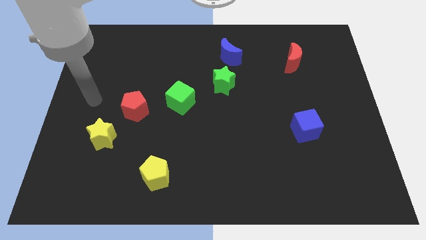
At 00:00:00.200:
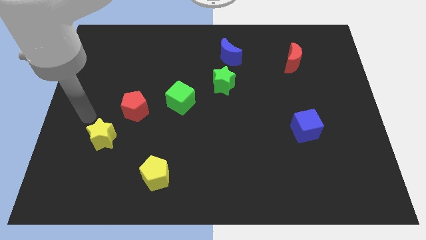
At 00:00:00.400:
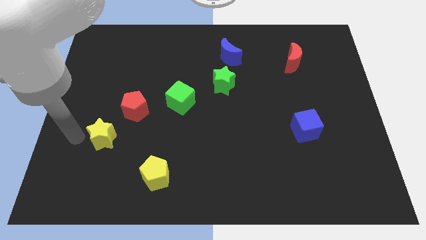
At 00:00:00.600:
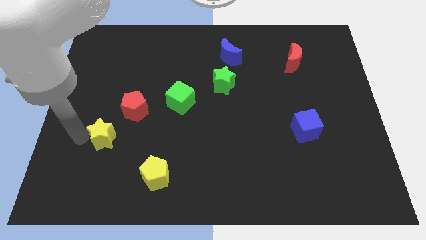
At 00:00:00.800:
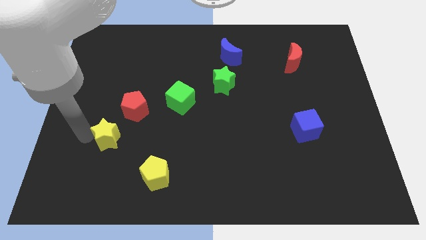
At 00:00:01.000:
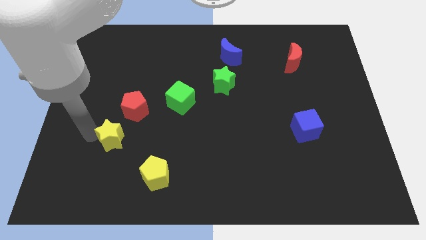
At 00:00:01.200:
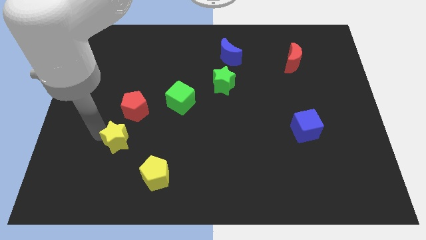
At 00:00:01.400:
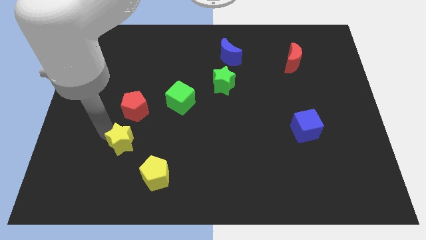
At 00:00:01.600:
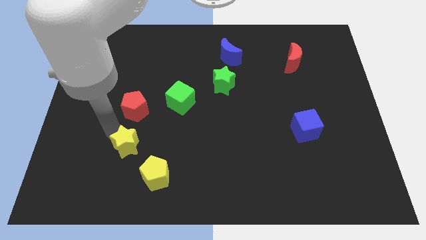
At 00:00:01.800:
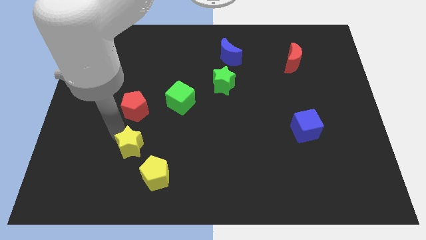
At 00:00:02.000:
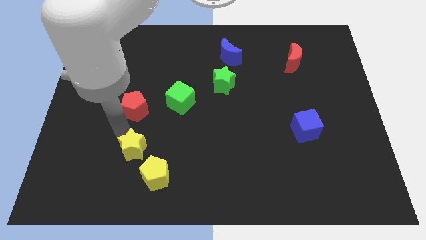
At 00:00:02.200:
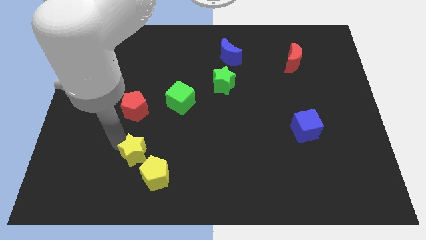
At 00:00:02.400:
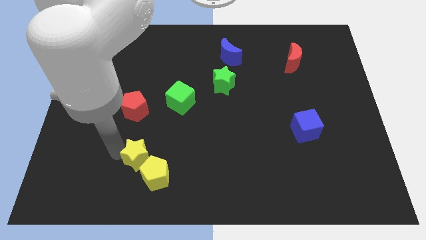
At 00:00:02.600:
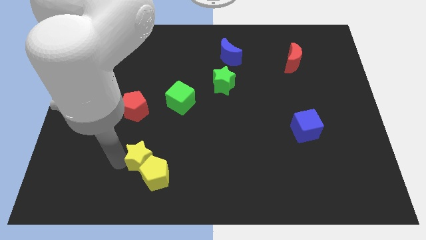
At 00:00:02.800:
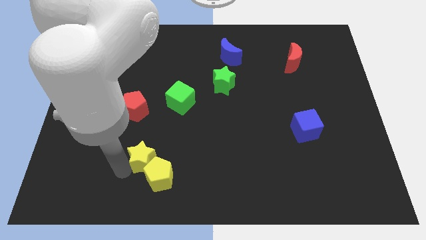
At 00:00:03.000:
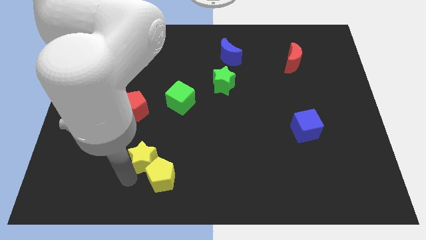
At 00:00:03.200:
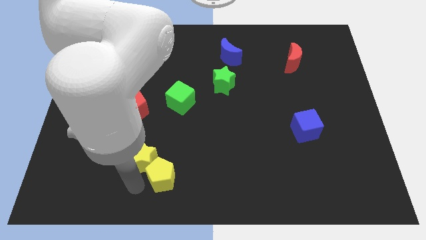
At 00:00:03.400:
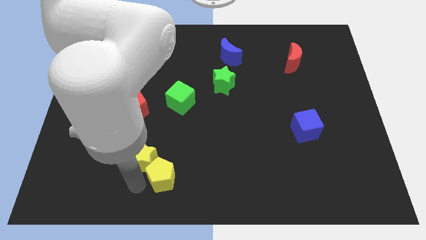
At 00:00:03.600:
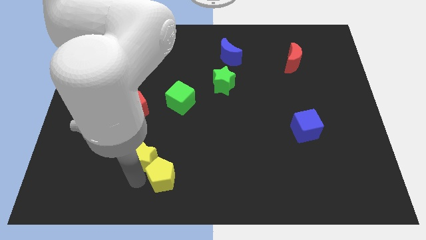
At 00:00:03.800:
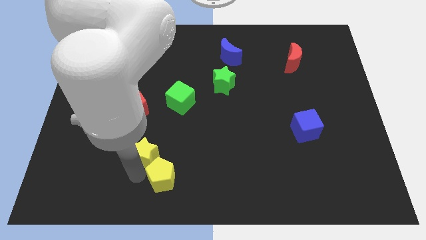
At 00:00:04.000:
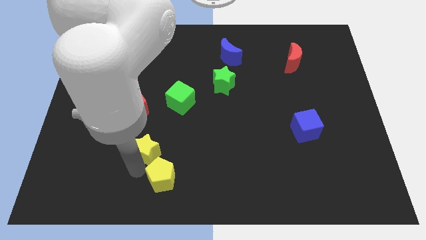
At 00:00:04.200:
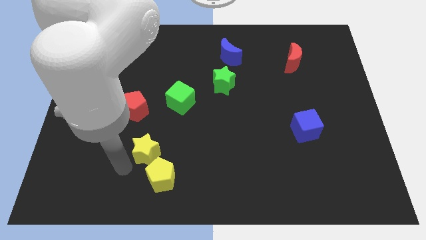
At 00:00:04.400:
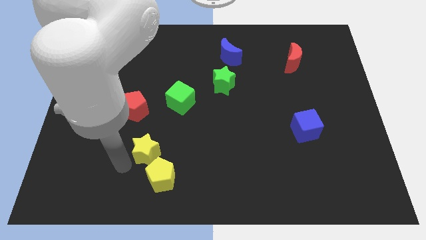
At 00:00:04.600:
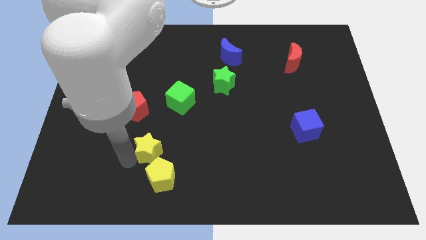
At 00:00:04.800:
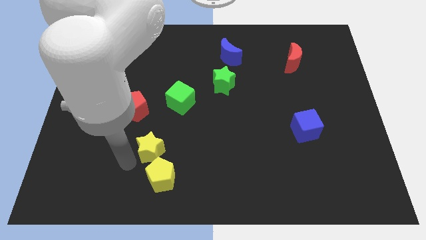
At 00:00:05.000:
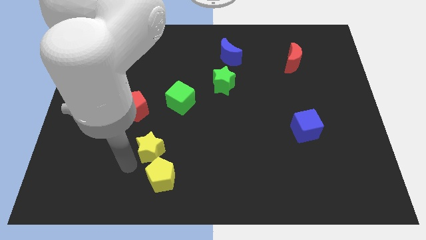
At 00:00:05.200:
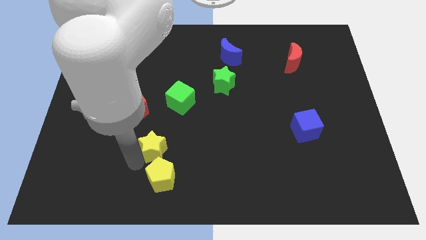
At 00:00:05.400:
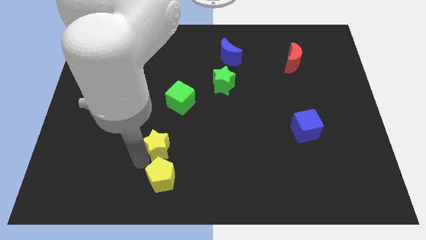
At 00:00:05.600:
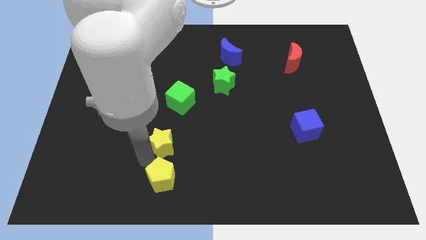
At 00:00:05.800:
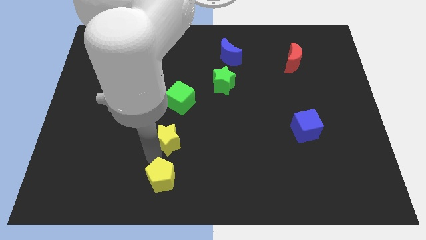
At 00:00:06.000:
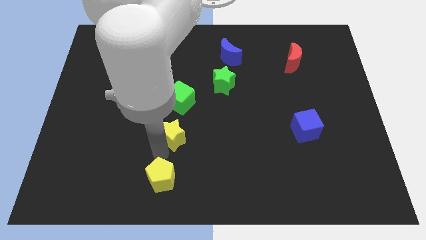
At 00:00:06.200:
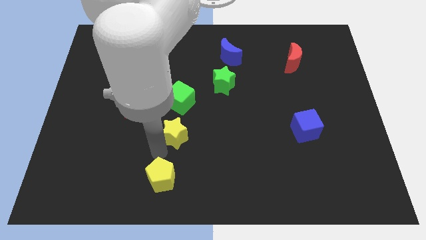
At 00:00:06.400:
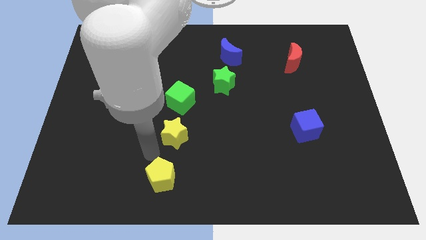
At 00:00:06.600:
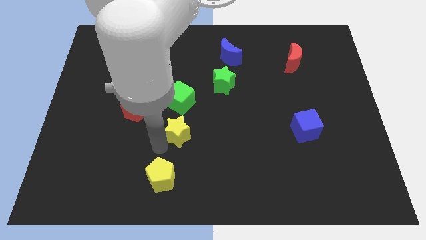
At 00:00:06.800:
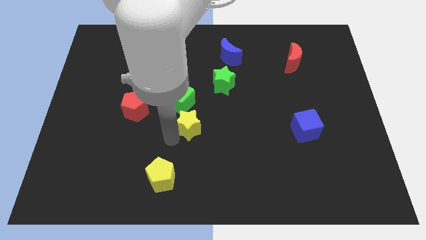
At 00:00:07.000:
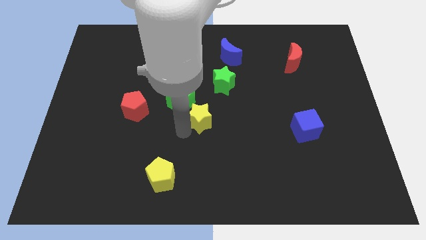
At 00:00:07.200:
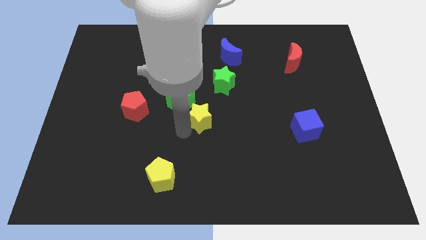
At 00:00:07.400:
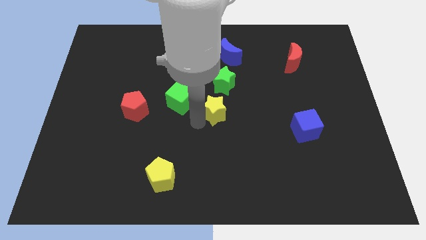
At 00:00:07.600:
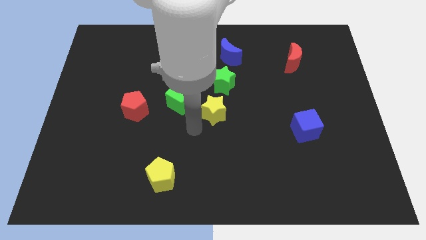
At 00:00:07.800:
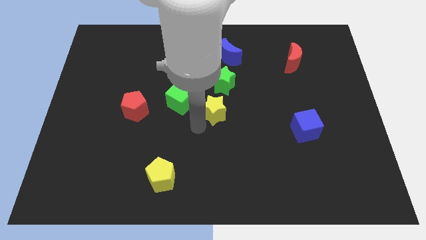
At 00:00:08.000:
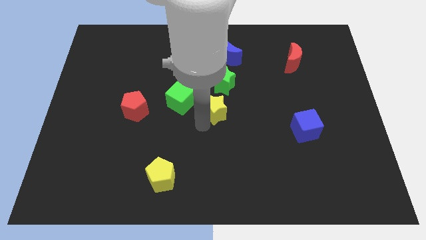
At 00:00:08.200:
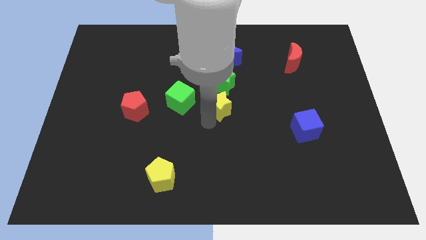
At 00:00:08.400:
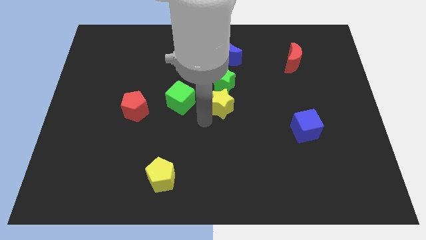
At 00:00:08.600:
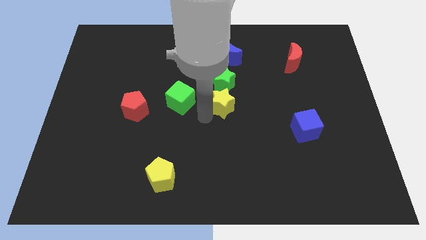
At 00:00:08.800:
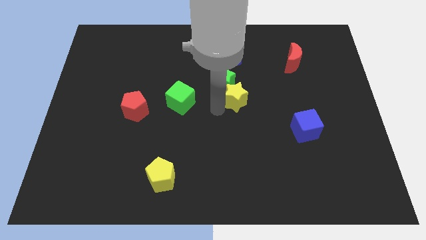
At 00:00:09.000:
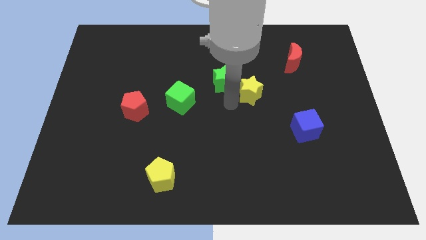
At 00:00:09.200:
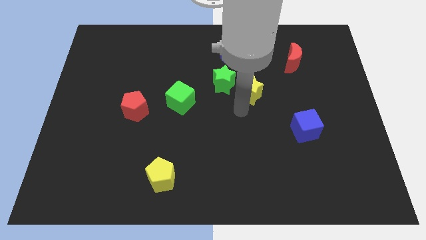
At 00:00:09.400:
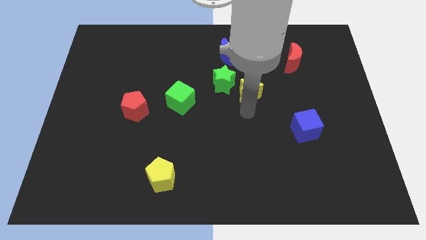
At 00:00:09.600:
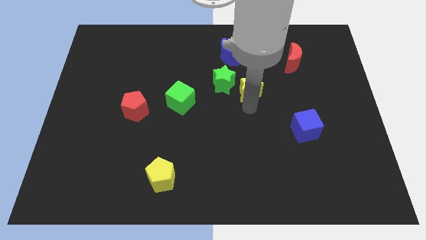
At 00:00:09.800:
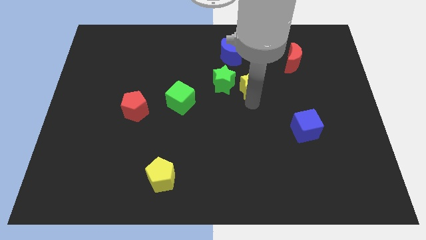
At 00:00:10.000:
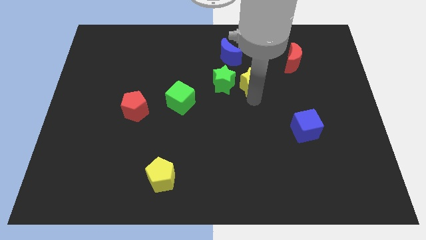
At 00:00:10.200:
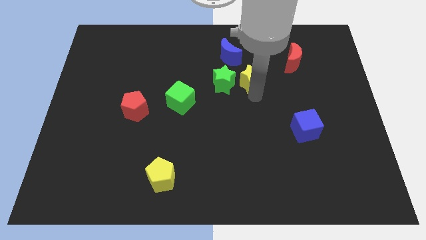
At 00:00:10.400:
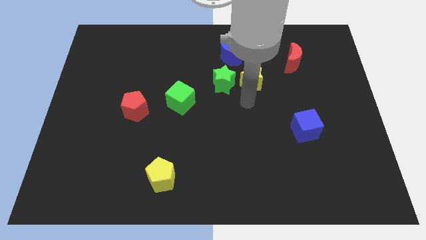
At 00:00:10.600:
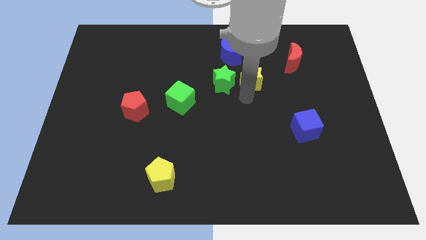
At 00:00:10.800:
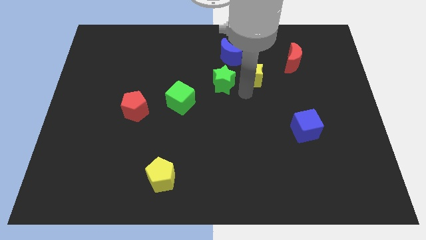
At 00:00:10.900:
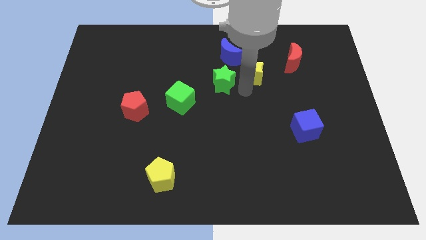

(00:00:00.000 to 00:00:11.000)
push the yellow star to the left of the red moon

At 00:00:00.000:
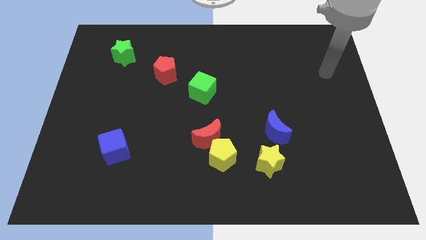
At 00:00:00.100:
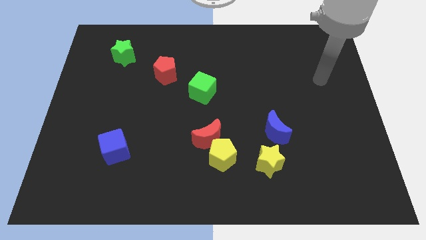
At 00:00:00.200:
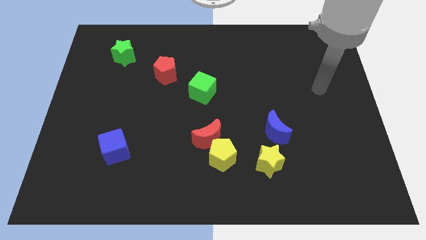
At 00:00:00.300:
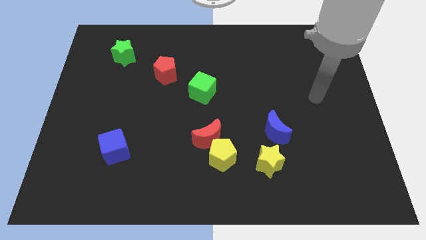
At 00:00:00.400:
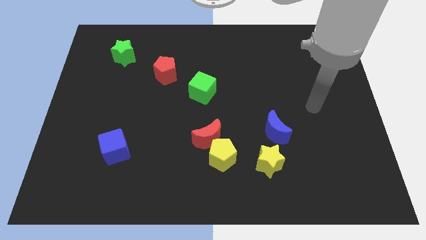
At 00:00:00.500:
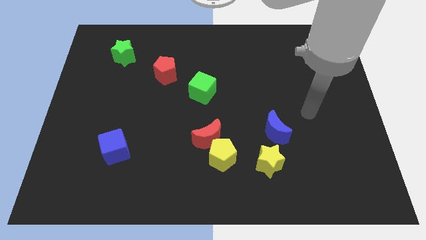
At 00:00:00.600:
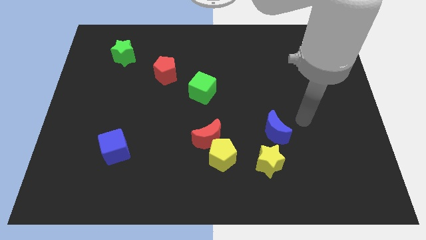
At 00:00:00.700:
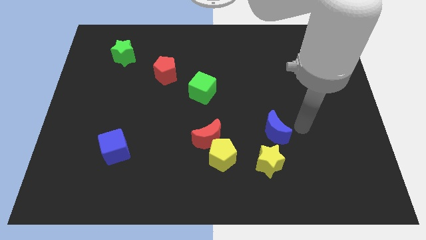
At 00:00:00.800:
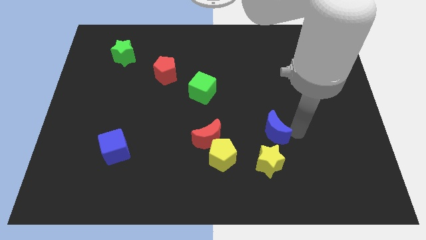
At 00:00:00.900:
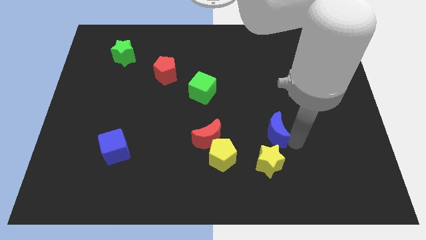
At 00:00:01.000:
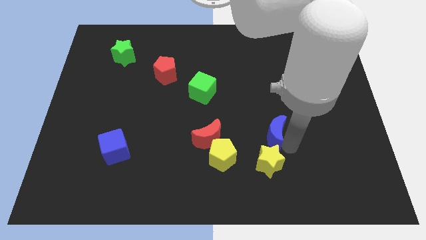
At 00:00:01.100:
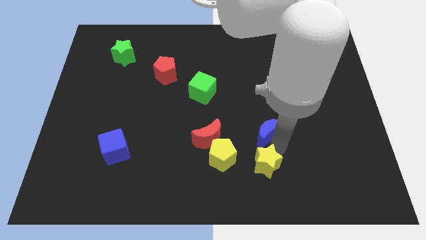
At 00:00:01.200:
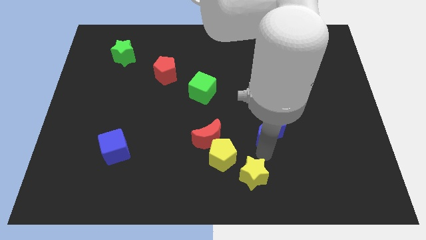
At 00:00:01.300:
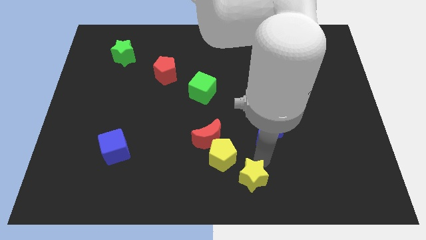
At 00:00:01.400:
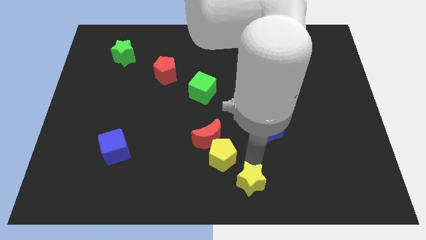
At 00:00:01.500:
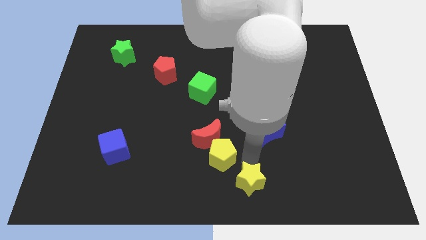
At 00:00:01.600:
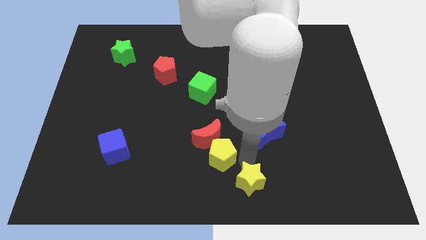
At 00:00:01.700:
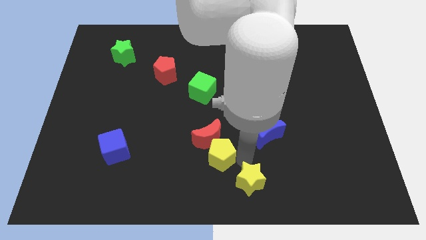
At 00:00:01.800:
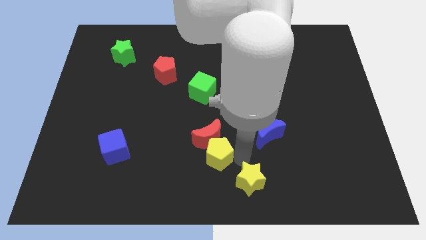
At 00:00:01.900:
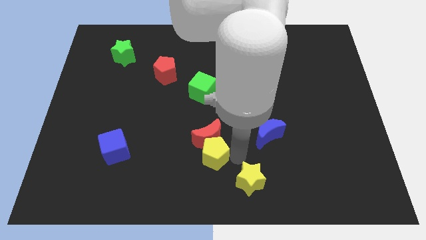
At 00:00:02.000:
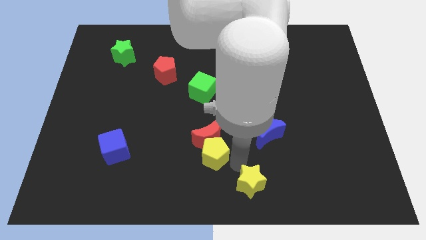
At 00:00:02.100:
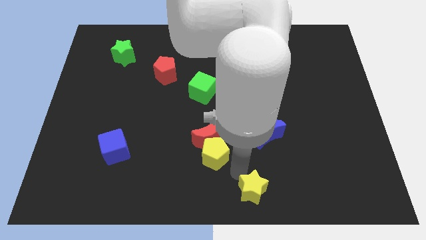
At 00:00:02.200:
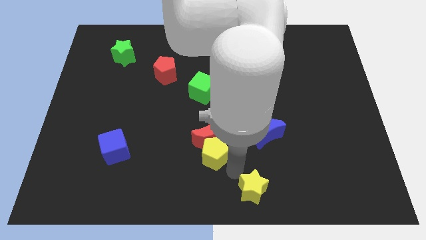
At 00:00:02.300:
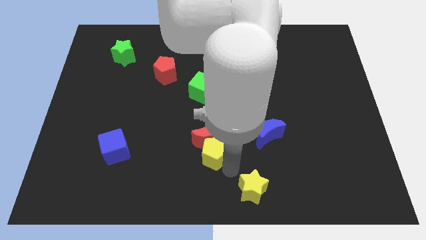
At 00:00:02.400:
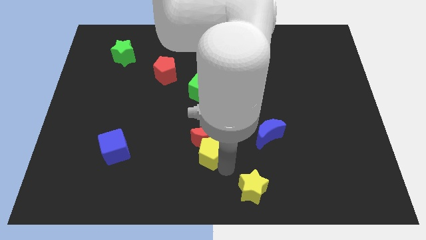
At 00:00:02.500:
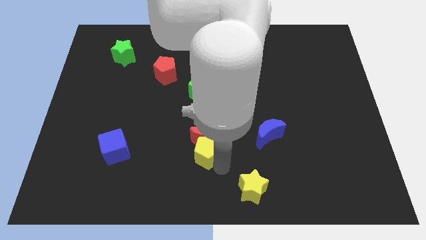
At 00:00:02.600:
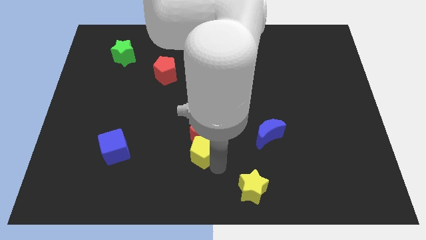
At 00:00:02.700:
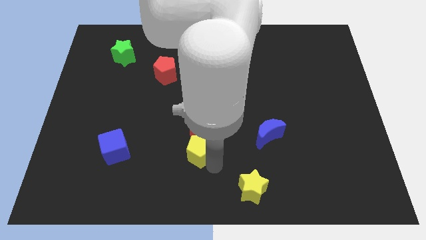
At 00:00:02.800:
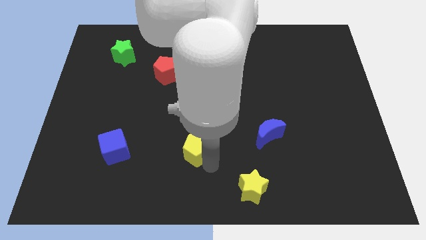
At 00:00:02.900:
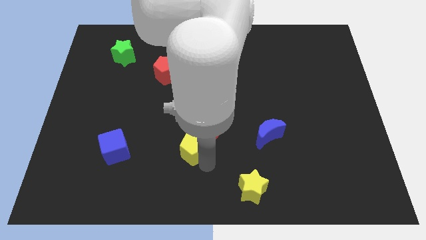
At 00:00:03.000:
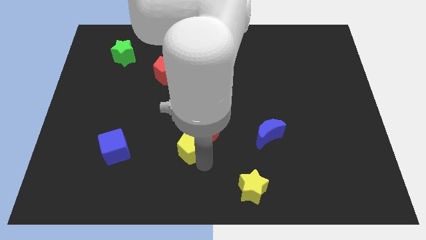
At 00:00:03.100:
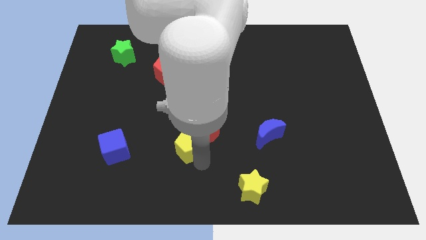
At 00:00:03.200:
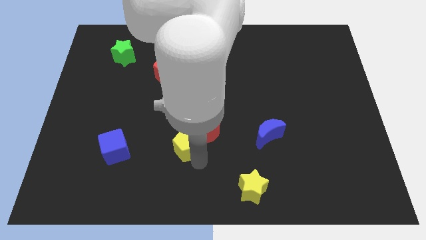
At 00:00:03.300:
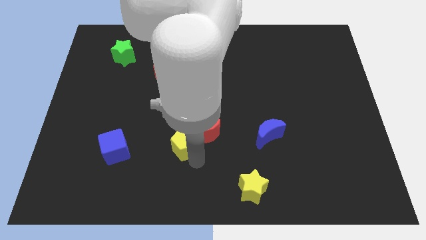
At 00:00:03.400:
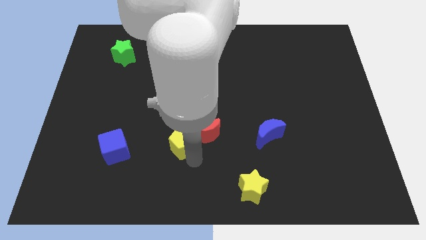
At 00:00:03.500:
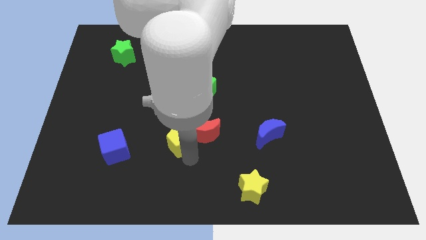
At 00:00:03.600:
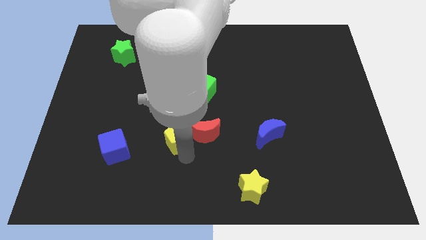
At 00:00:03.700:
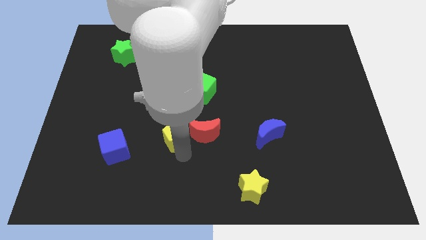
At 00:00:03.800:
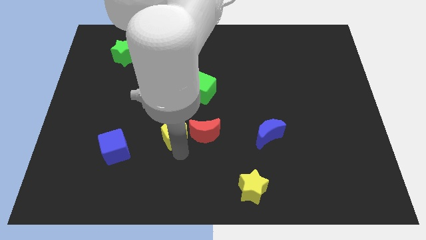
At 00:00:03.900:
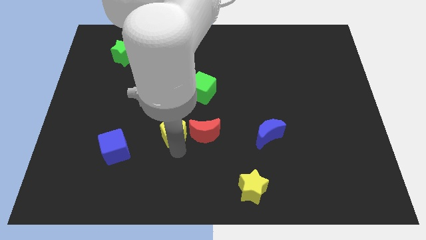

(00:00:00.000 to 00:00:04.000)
slide the yellow pentagon to the top left side of the red moon
